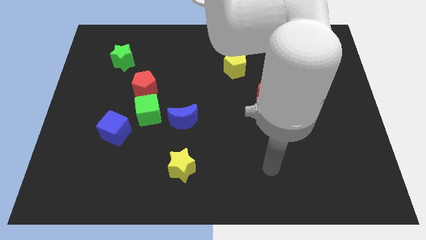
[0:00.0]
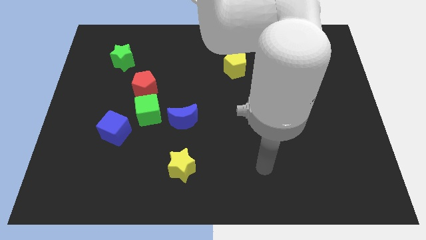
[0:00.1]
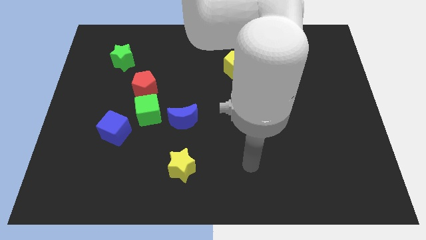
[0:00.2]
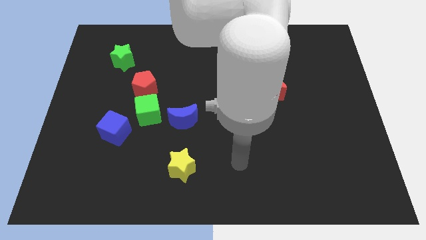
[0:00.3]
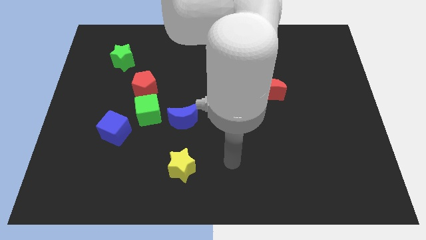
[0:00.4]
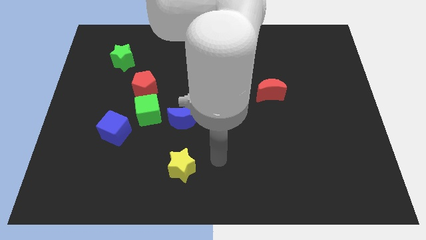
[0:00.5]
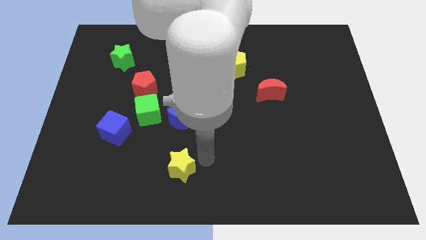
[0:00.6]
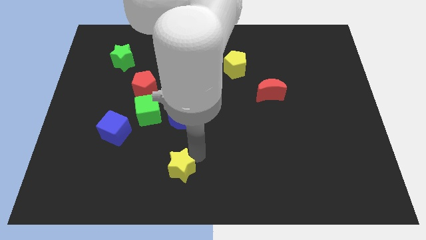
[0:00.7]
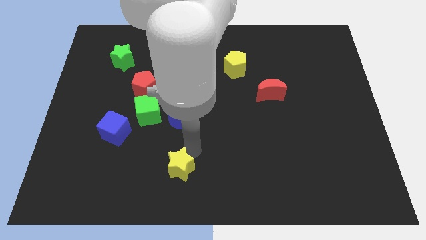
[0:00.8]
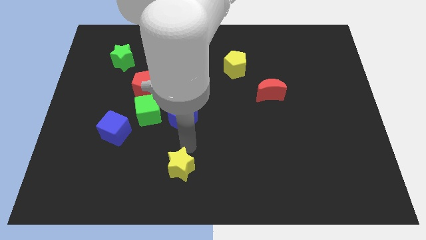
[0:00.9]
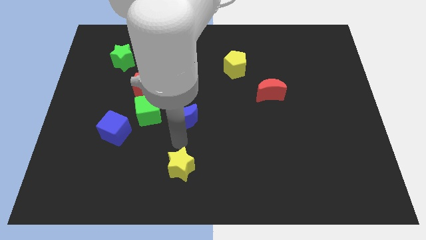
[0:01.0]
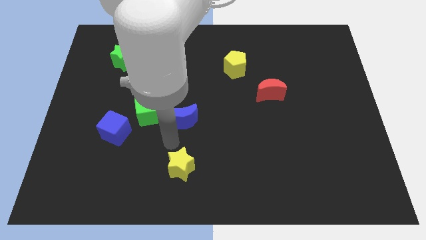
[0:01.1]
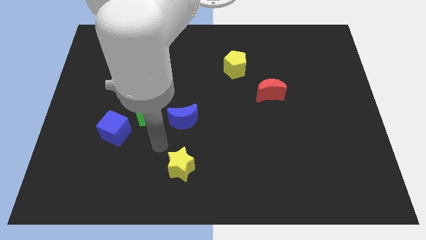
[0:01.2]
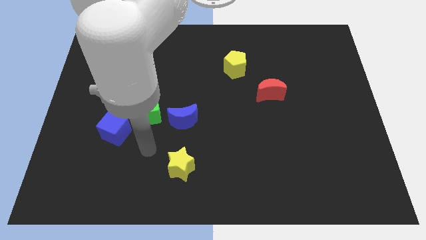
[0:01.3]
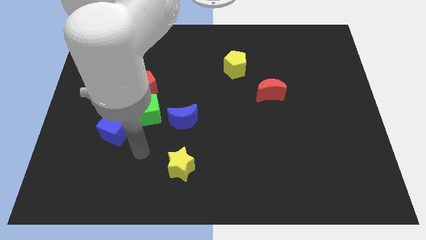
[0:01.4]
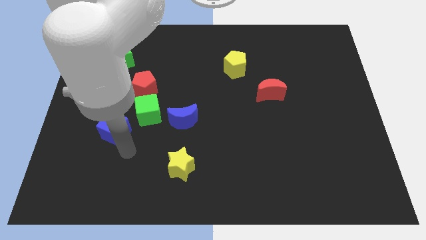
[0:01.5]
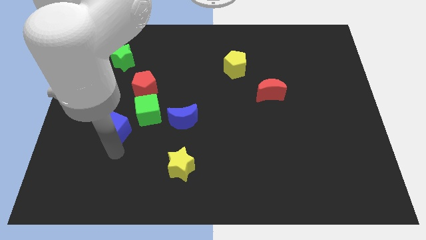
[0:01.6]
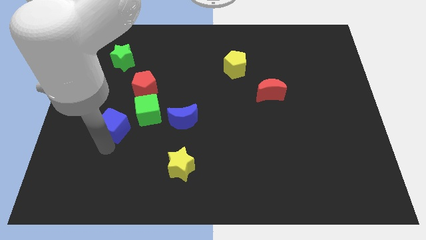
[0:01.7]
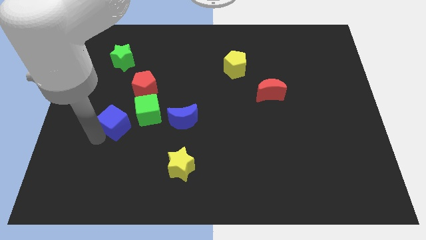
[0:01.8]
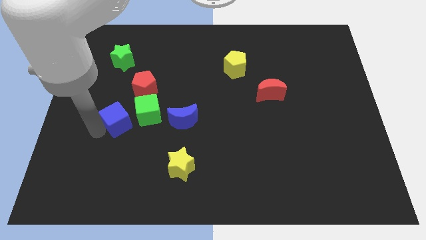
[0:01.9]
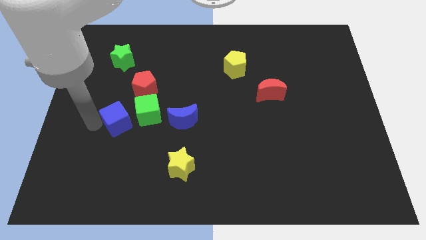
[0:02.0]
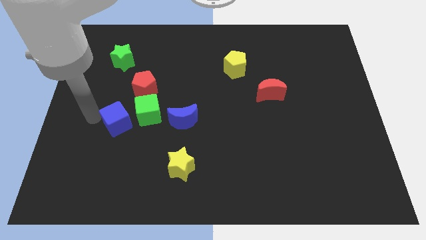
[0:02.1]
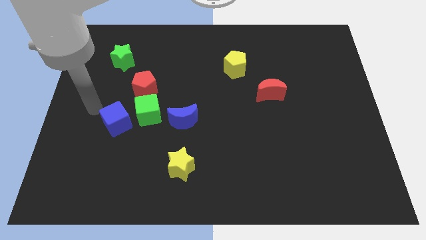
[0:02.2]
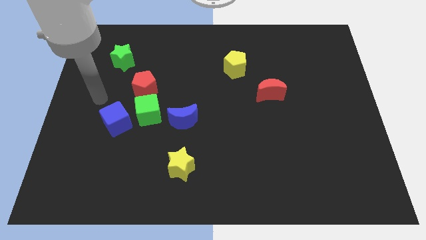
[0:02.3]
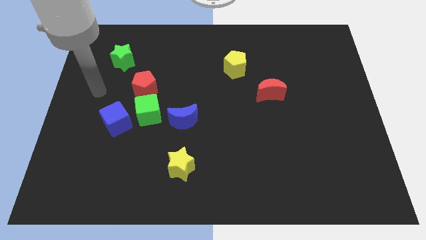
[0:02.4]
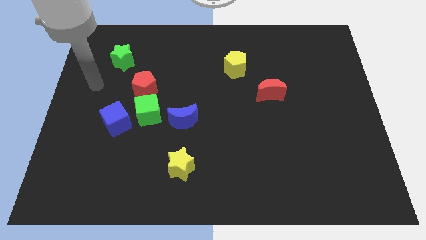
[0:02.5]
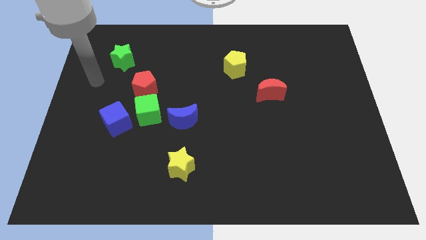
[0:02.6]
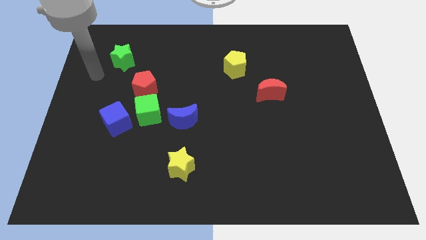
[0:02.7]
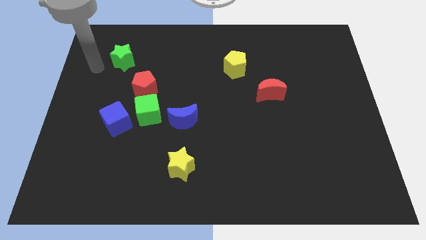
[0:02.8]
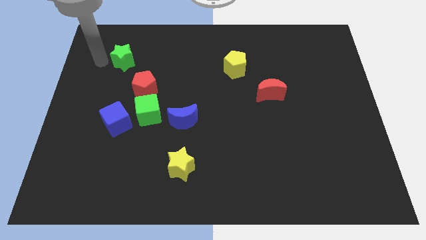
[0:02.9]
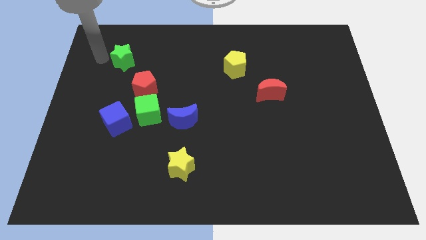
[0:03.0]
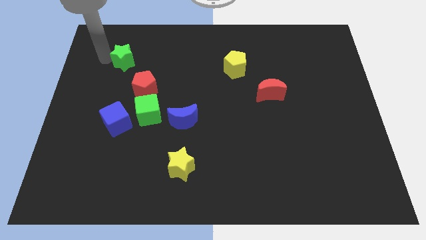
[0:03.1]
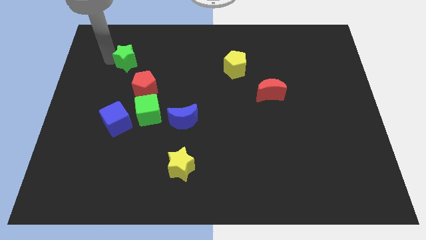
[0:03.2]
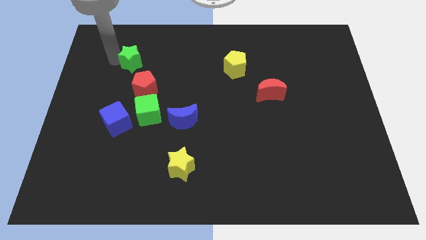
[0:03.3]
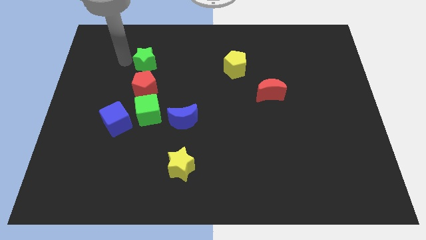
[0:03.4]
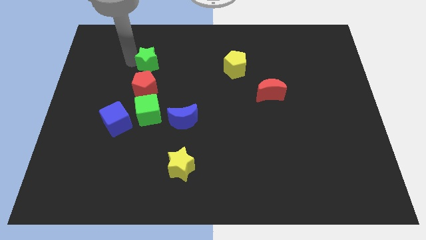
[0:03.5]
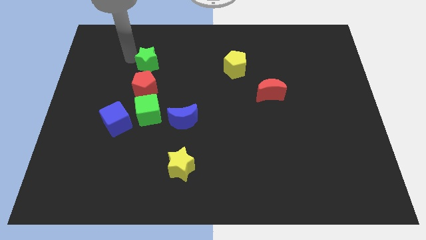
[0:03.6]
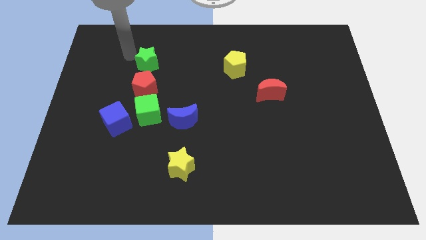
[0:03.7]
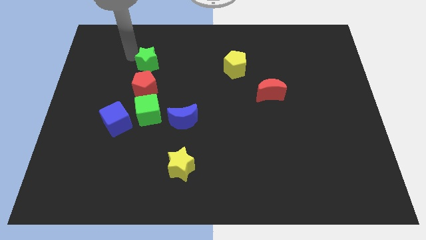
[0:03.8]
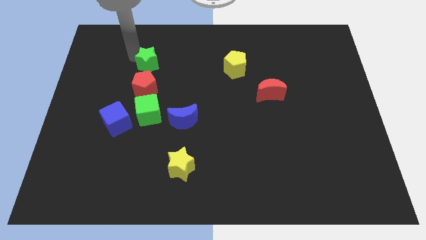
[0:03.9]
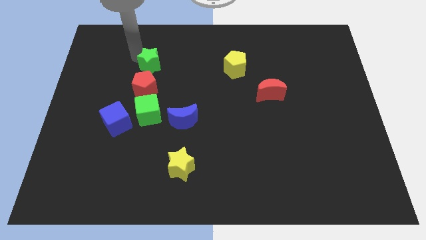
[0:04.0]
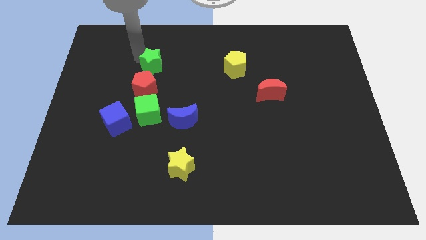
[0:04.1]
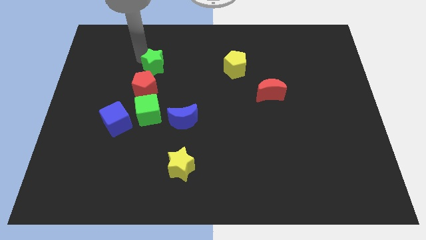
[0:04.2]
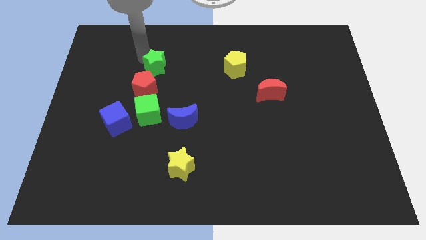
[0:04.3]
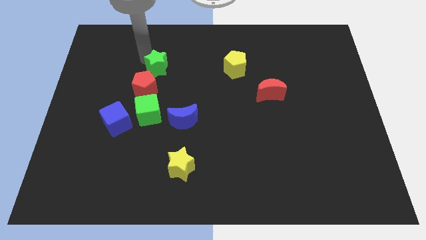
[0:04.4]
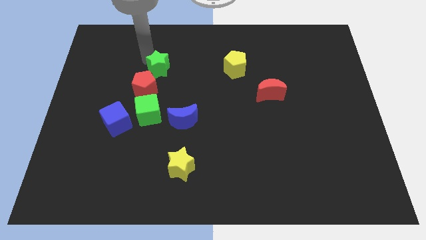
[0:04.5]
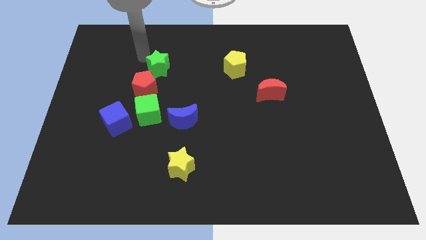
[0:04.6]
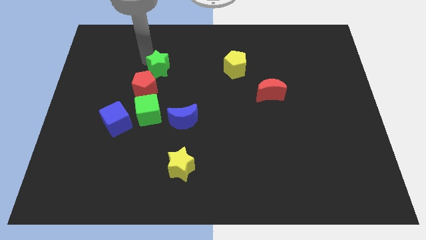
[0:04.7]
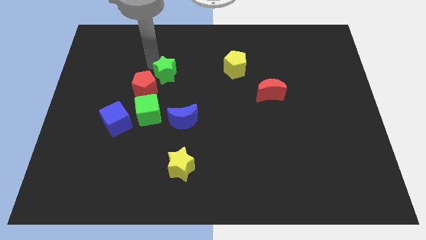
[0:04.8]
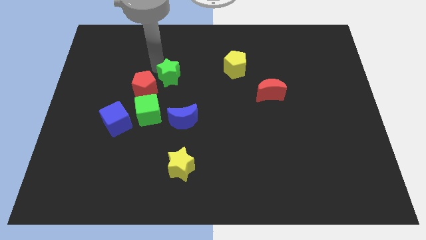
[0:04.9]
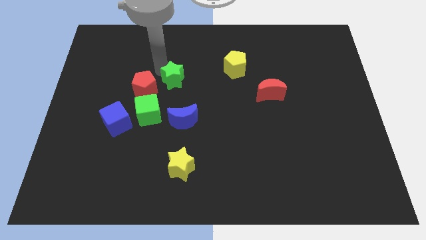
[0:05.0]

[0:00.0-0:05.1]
move the green star to the center

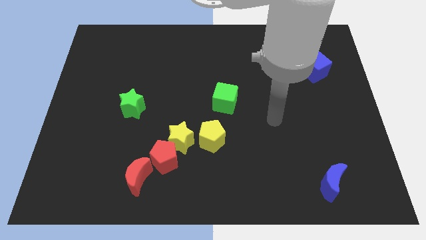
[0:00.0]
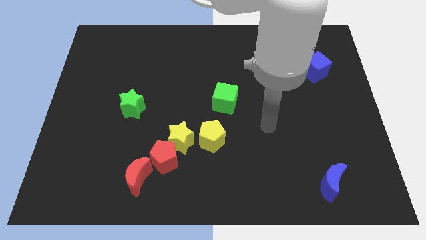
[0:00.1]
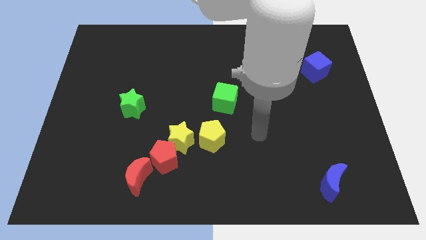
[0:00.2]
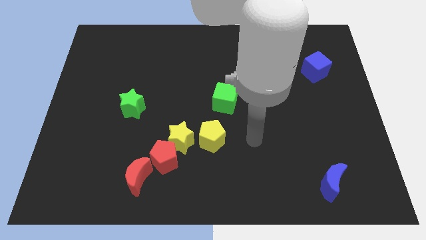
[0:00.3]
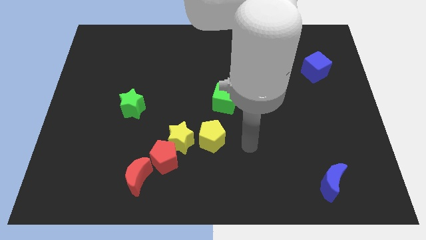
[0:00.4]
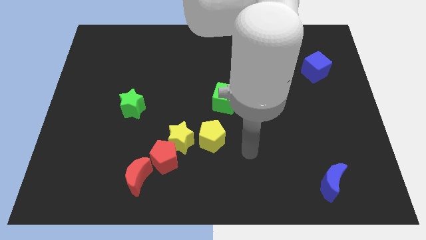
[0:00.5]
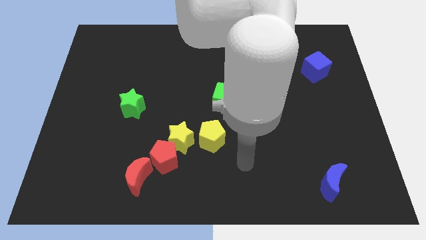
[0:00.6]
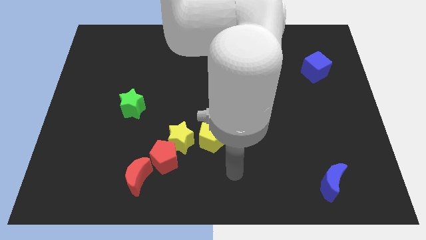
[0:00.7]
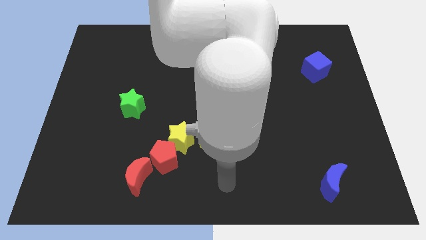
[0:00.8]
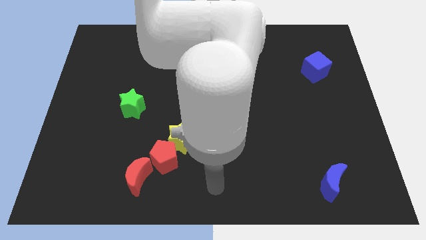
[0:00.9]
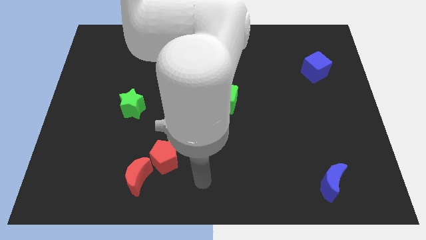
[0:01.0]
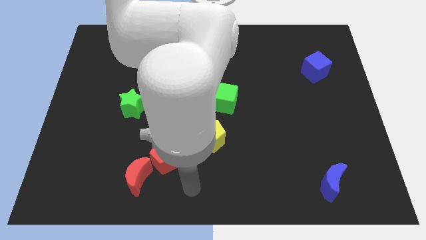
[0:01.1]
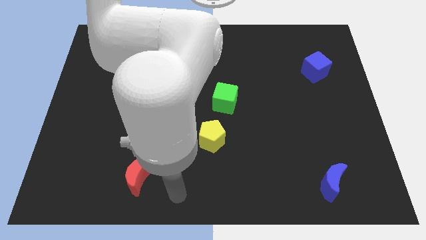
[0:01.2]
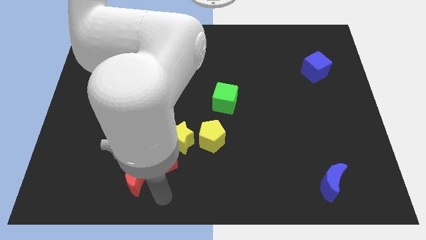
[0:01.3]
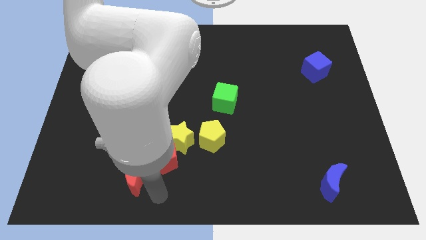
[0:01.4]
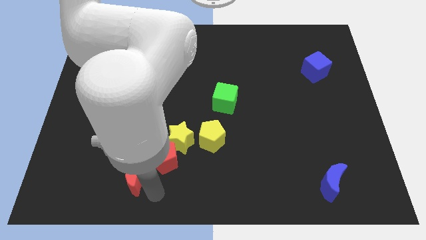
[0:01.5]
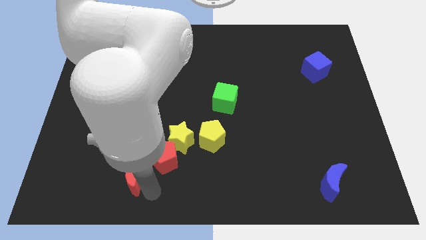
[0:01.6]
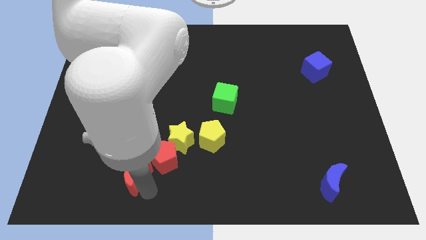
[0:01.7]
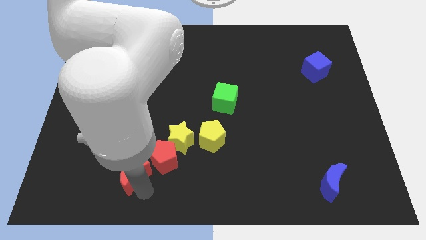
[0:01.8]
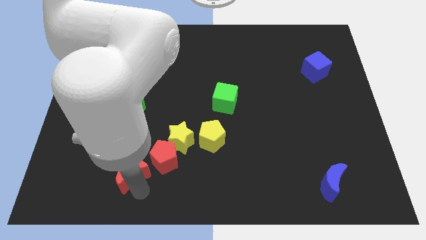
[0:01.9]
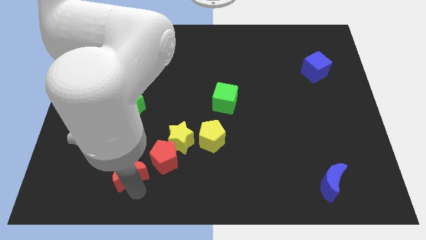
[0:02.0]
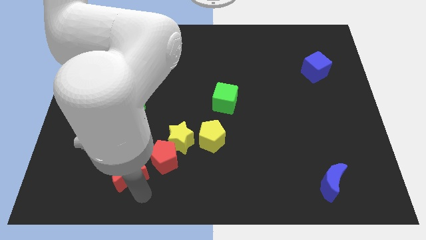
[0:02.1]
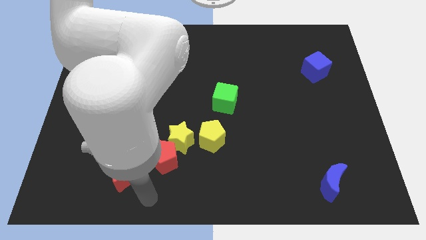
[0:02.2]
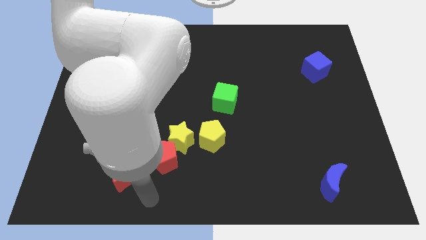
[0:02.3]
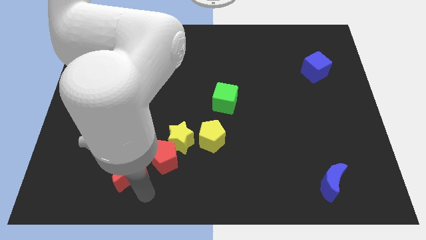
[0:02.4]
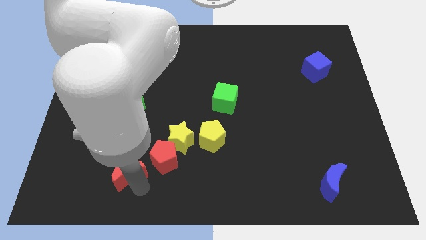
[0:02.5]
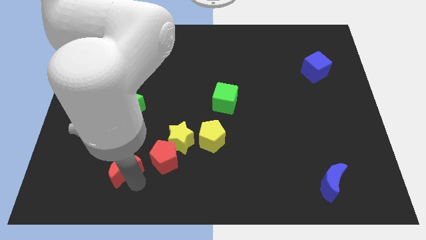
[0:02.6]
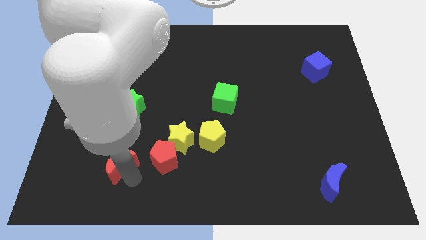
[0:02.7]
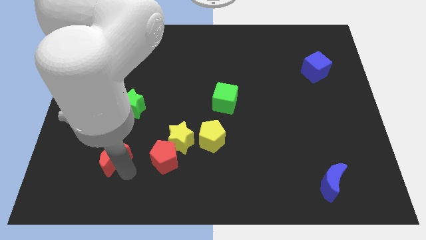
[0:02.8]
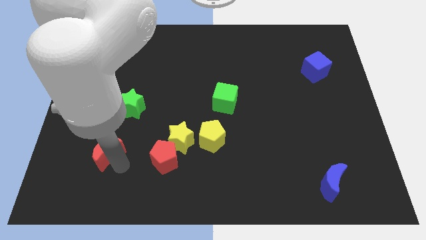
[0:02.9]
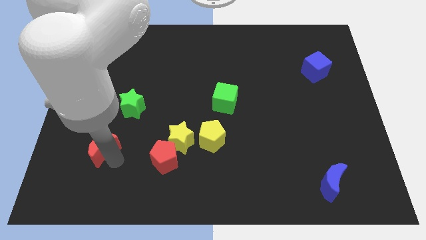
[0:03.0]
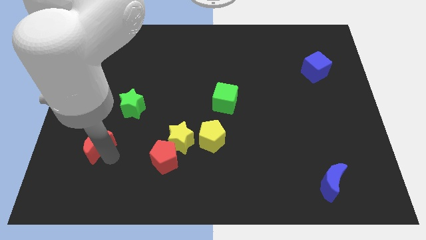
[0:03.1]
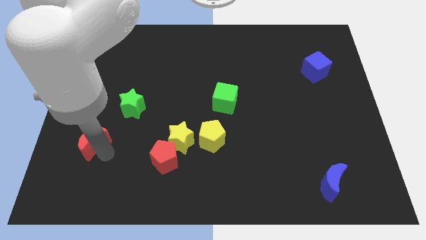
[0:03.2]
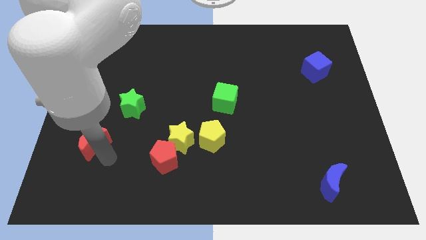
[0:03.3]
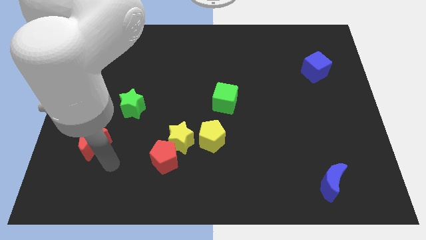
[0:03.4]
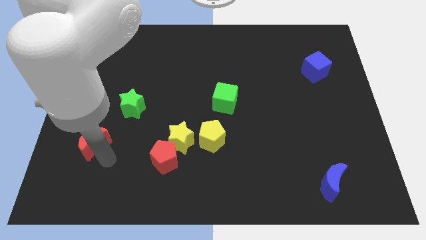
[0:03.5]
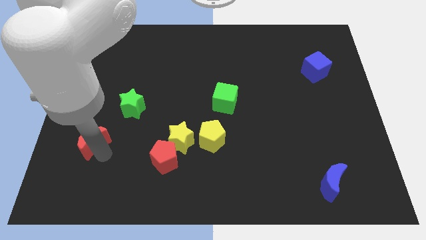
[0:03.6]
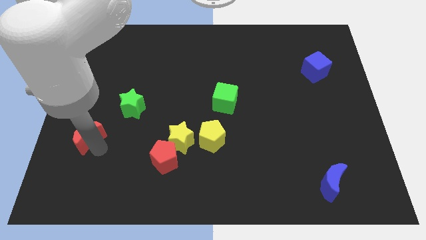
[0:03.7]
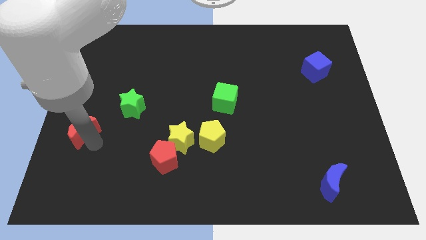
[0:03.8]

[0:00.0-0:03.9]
push the red moon to the left side of the board
